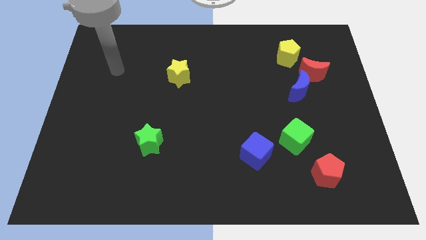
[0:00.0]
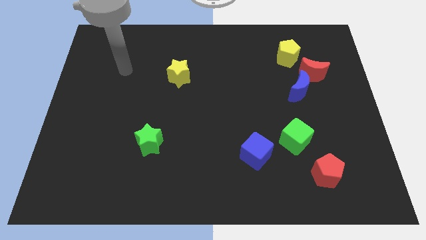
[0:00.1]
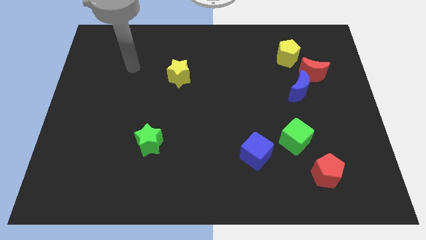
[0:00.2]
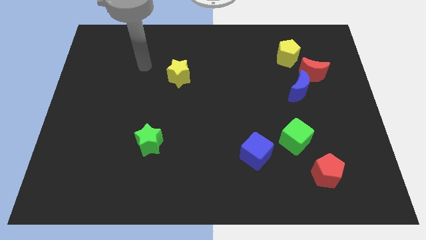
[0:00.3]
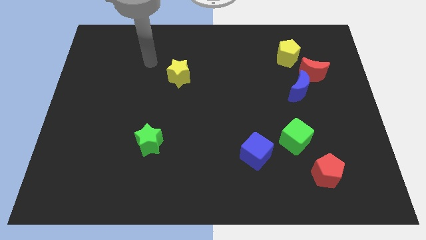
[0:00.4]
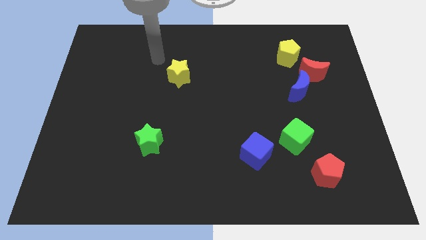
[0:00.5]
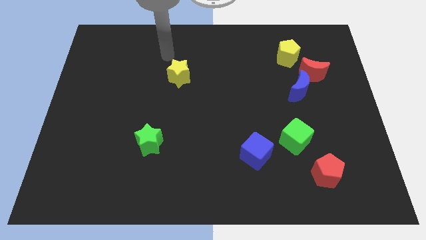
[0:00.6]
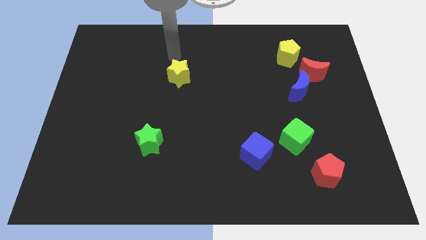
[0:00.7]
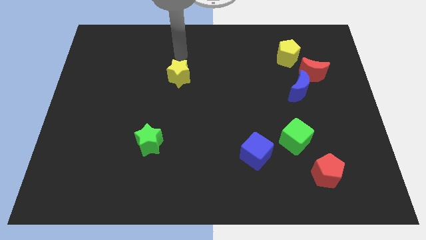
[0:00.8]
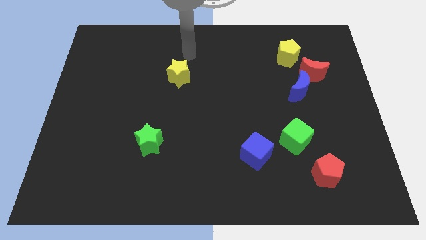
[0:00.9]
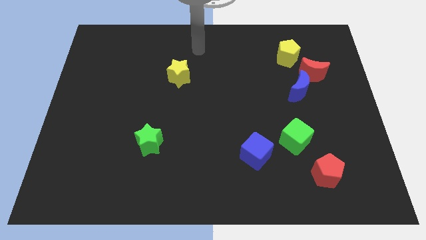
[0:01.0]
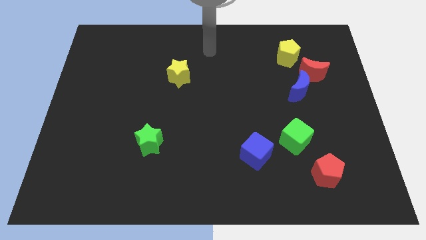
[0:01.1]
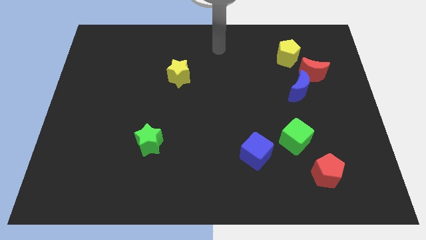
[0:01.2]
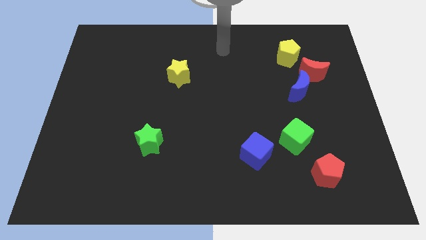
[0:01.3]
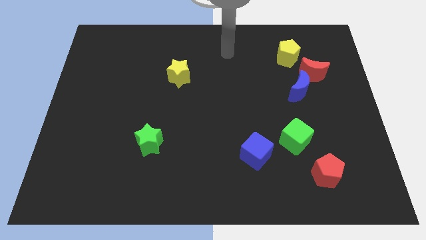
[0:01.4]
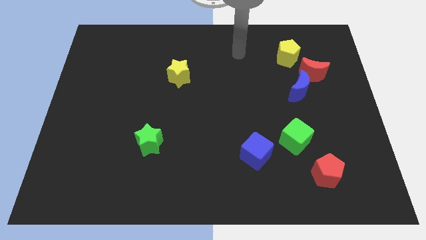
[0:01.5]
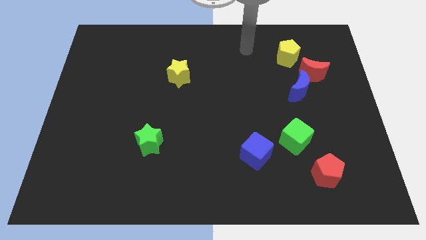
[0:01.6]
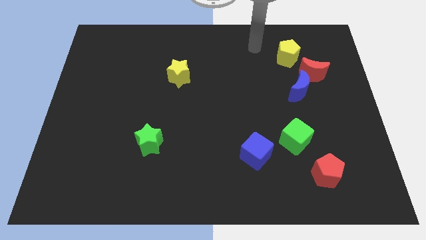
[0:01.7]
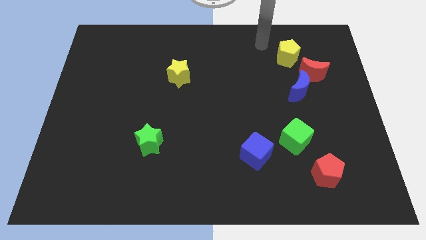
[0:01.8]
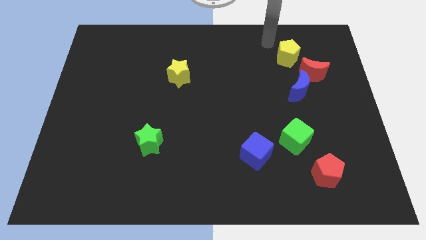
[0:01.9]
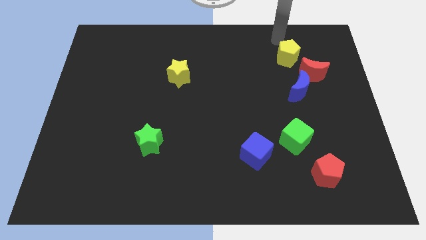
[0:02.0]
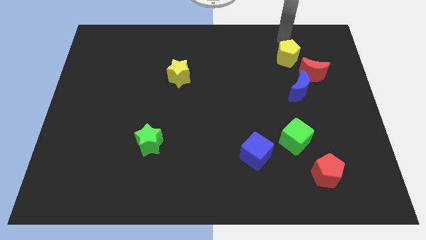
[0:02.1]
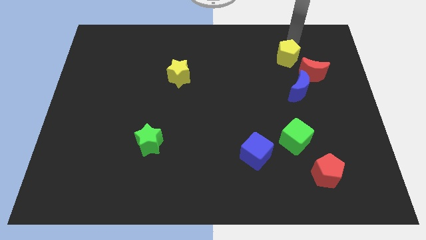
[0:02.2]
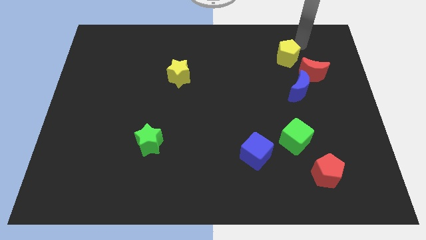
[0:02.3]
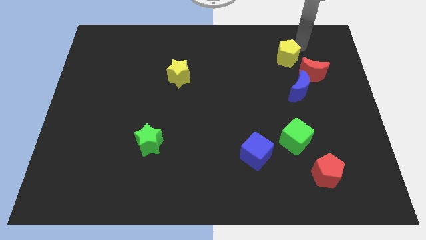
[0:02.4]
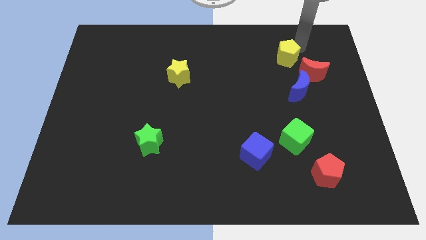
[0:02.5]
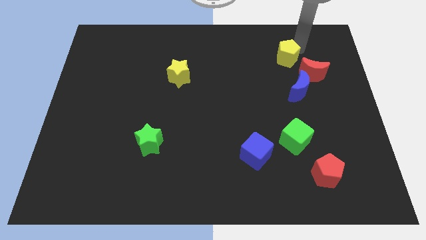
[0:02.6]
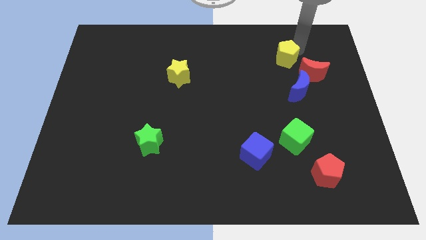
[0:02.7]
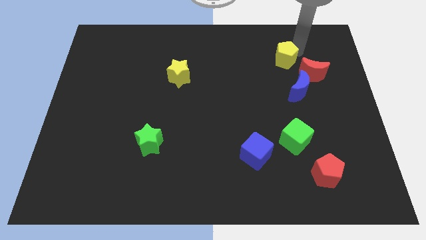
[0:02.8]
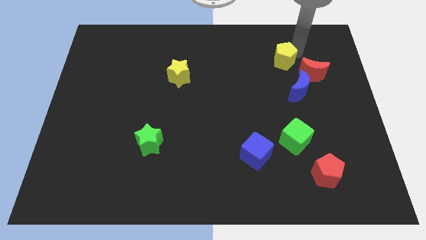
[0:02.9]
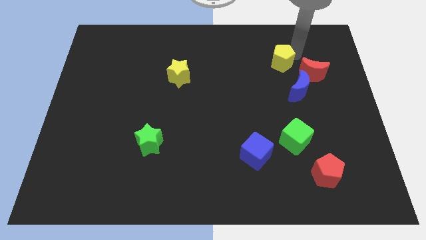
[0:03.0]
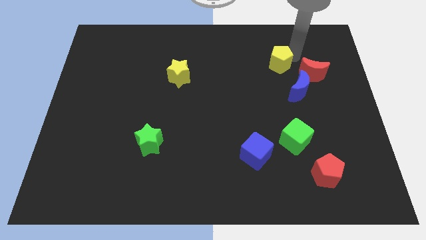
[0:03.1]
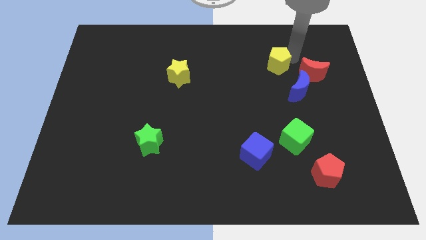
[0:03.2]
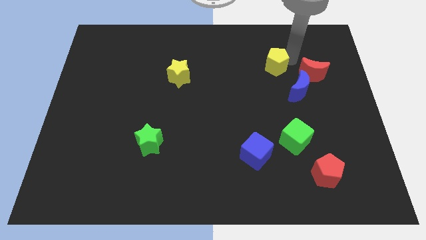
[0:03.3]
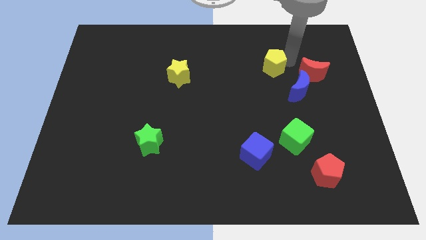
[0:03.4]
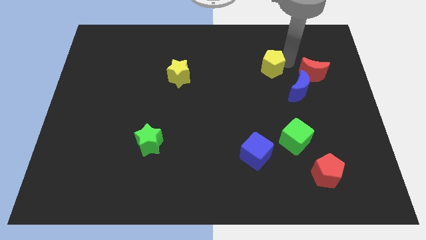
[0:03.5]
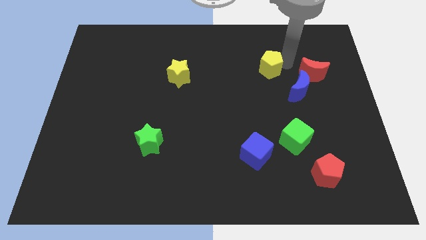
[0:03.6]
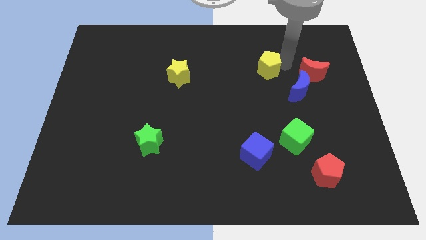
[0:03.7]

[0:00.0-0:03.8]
slide the yellow pentagon a bit diagonally down and to the left

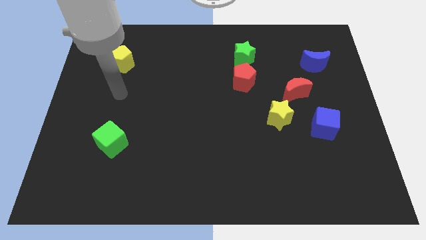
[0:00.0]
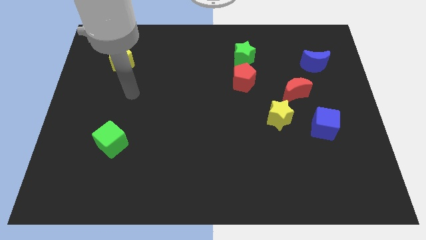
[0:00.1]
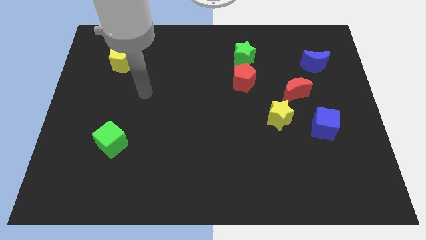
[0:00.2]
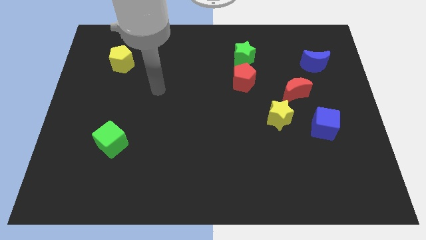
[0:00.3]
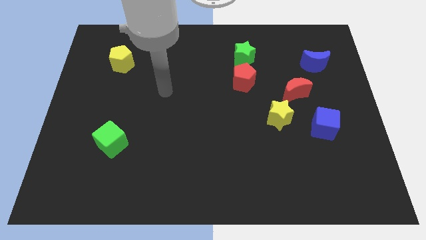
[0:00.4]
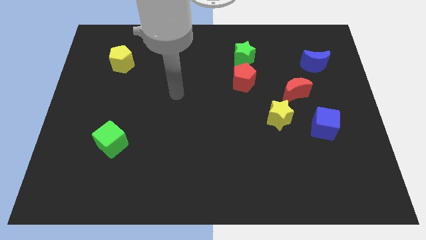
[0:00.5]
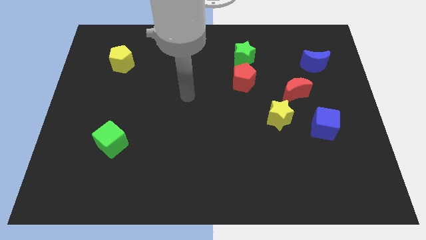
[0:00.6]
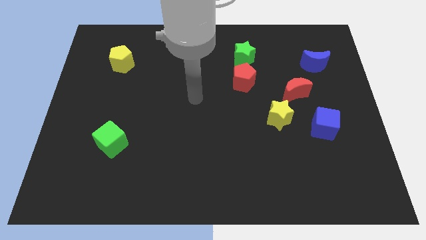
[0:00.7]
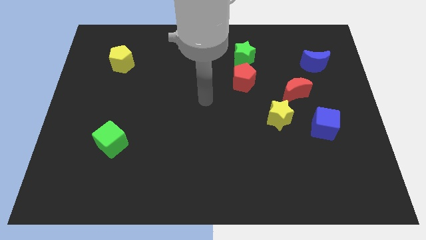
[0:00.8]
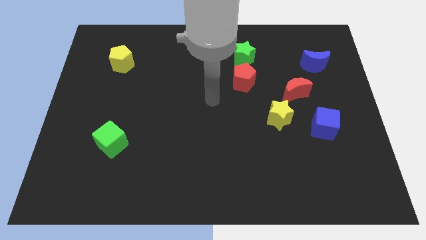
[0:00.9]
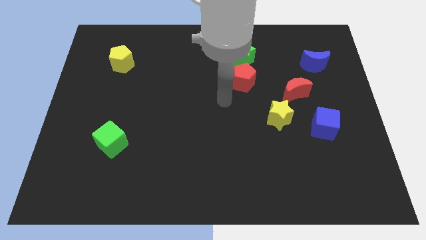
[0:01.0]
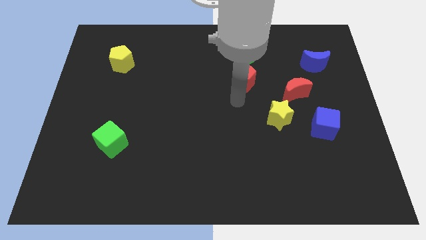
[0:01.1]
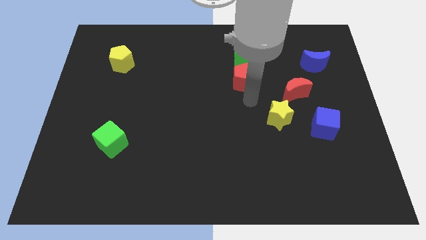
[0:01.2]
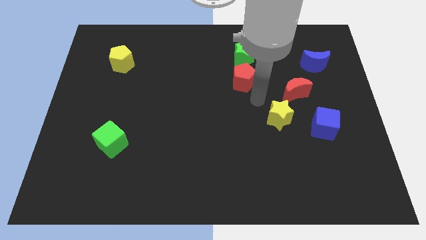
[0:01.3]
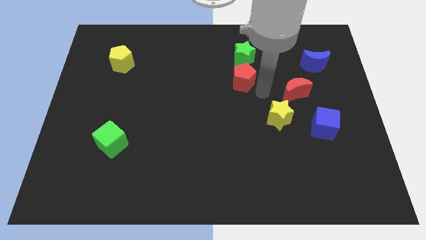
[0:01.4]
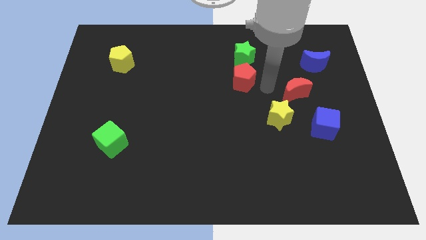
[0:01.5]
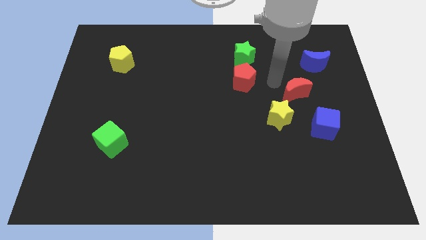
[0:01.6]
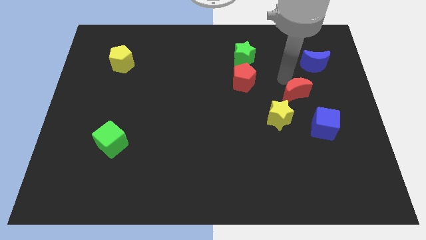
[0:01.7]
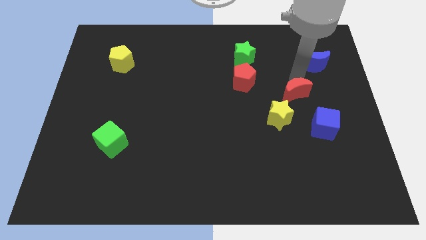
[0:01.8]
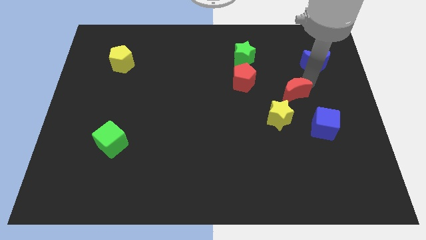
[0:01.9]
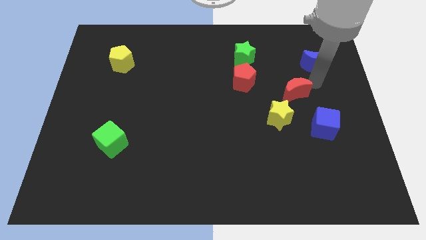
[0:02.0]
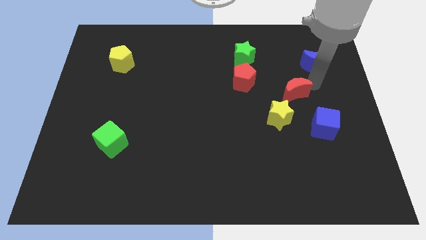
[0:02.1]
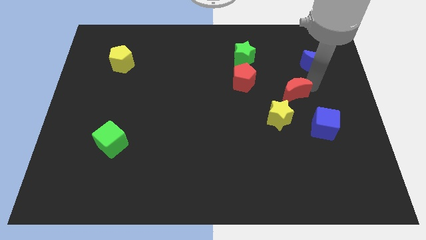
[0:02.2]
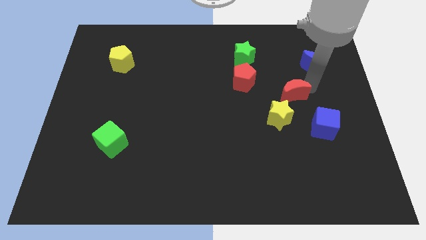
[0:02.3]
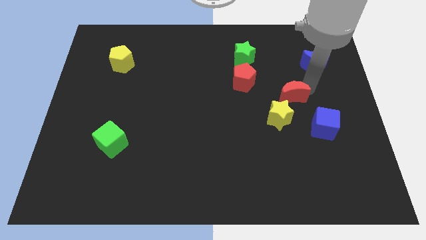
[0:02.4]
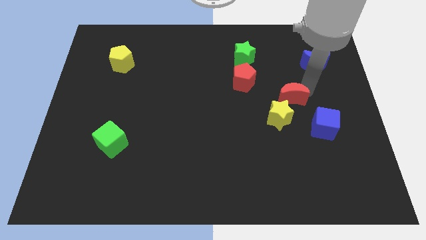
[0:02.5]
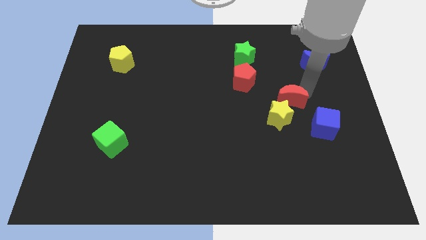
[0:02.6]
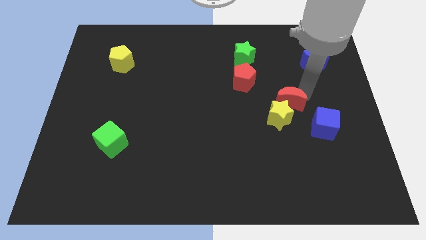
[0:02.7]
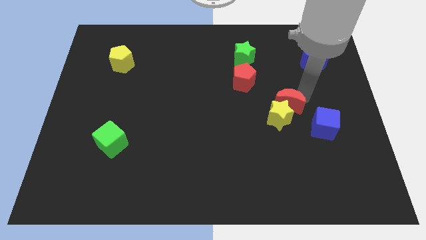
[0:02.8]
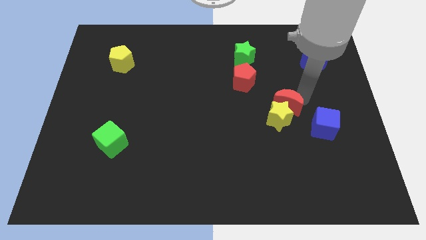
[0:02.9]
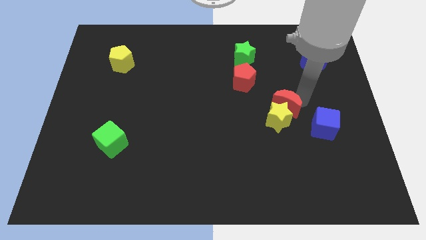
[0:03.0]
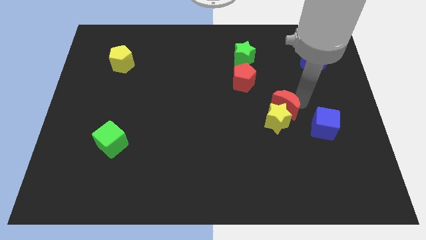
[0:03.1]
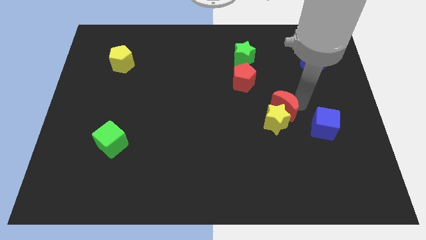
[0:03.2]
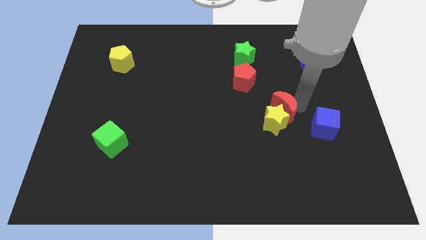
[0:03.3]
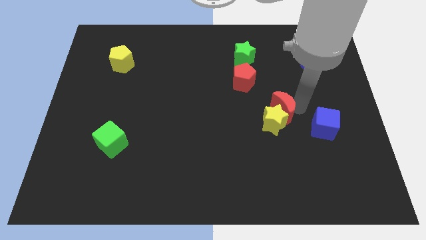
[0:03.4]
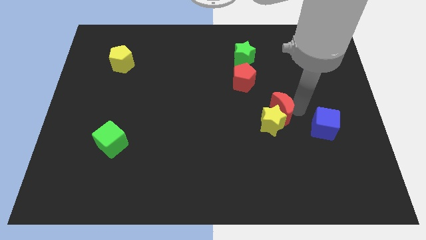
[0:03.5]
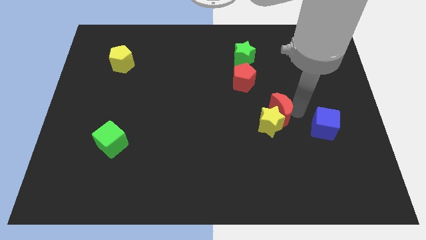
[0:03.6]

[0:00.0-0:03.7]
slightly push the red moon down and to the left diagonally

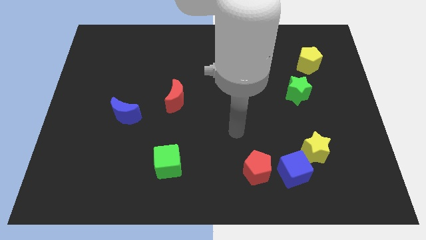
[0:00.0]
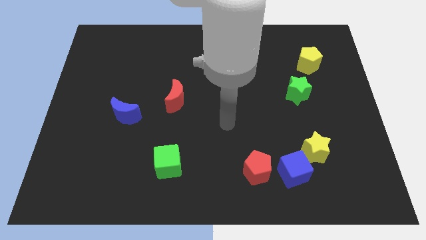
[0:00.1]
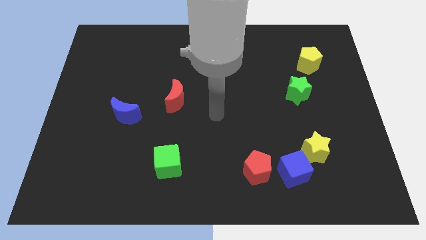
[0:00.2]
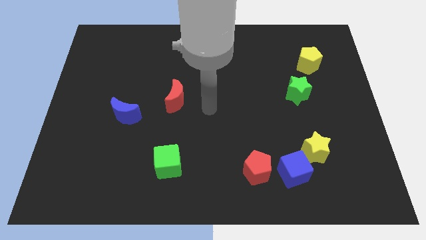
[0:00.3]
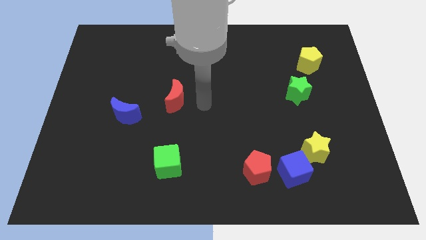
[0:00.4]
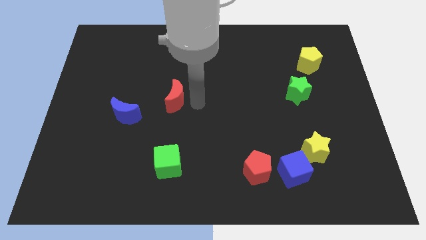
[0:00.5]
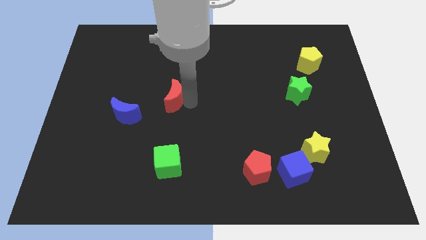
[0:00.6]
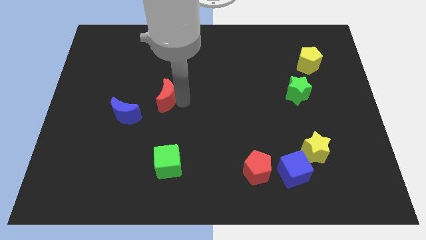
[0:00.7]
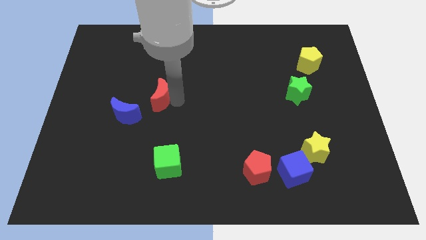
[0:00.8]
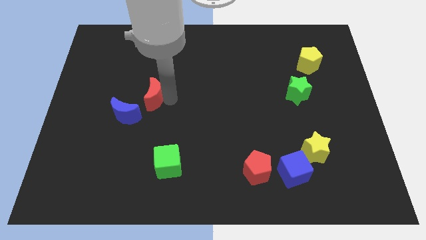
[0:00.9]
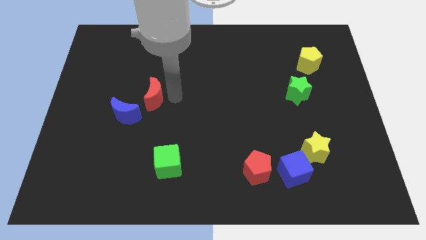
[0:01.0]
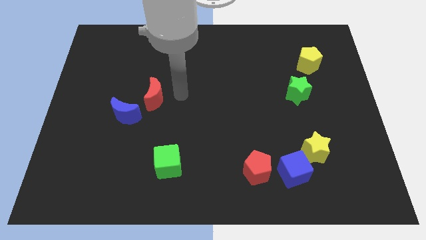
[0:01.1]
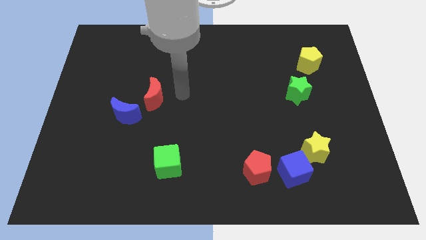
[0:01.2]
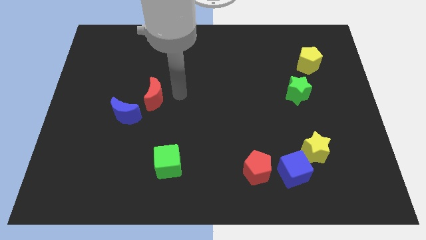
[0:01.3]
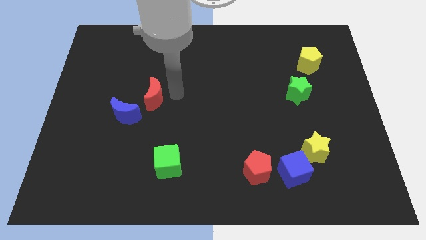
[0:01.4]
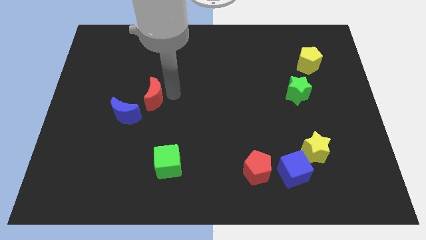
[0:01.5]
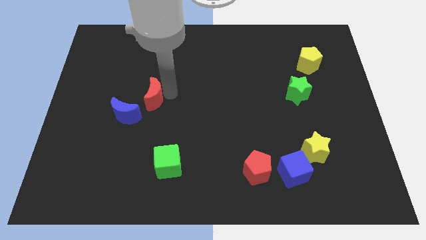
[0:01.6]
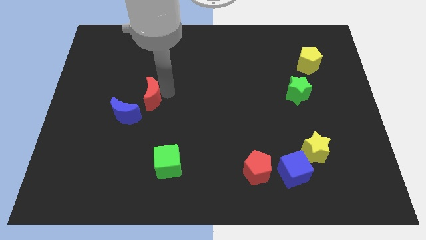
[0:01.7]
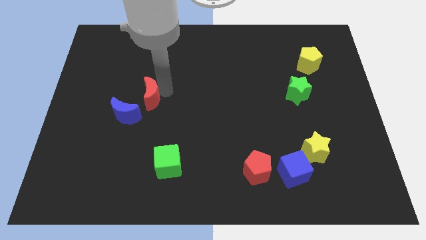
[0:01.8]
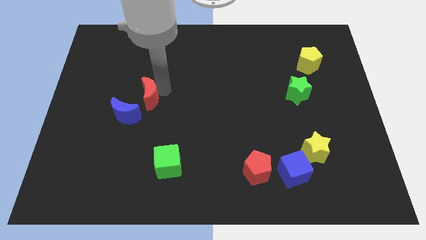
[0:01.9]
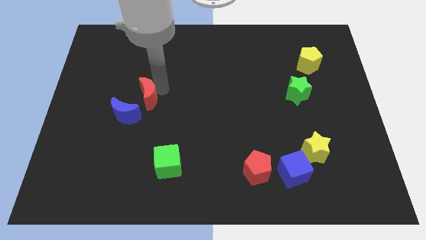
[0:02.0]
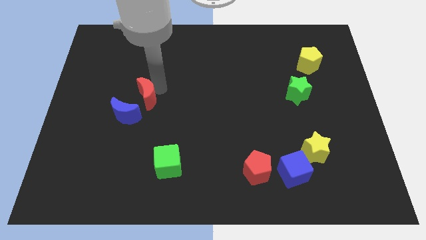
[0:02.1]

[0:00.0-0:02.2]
slightly slide the red moon to the left
